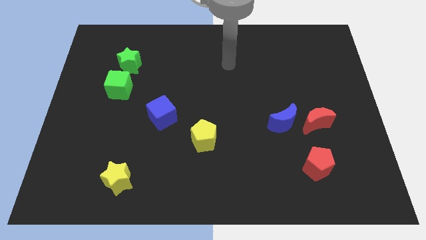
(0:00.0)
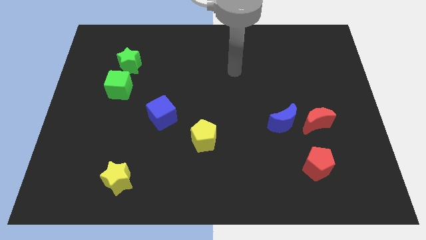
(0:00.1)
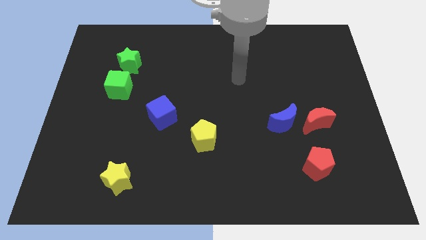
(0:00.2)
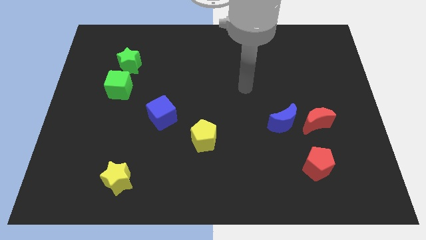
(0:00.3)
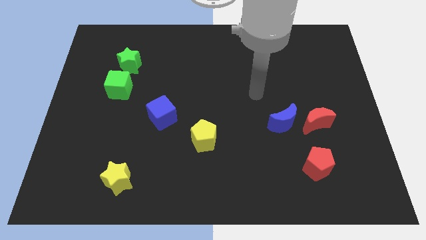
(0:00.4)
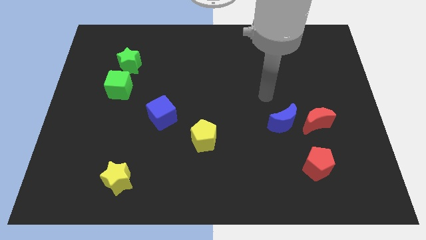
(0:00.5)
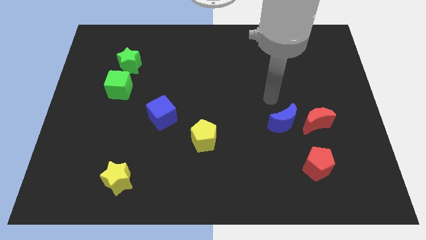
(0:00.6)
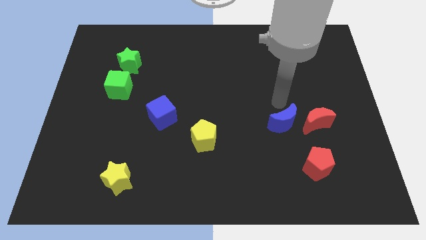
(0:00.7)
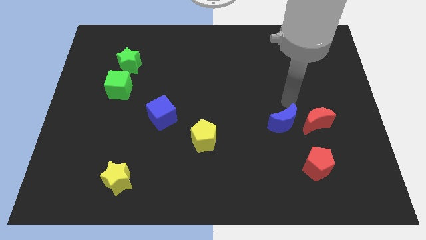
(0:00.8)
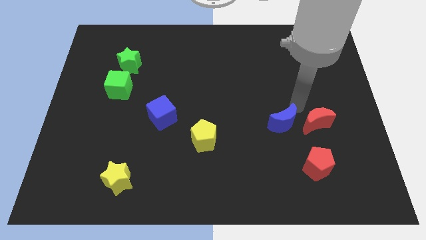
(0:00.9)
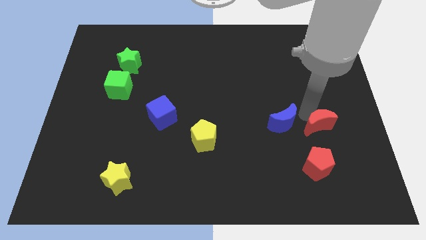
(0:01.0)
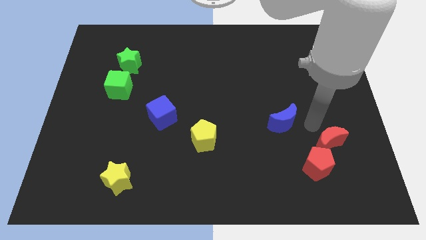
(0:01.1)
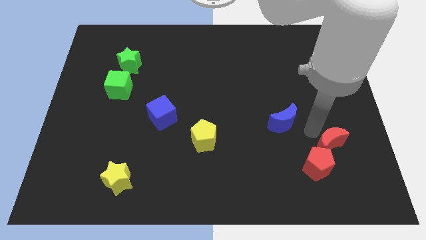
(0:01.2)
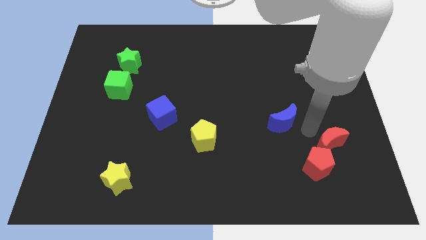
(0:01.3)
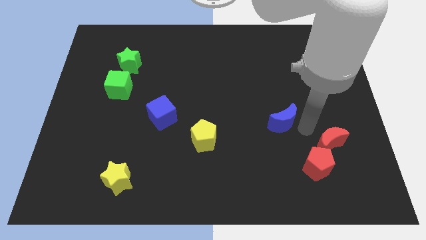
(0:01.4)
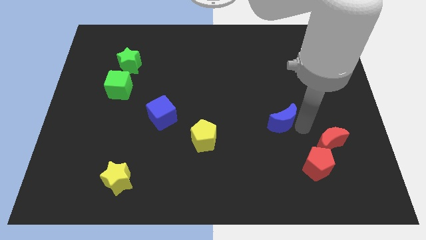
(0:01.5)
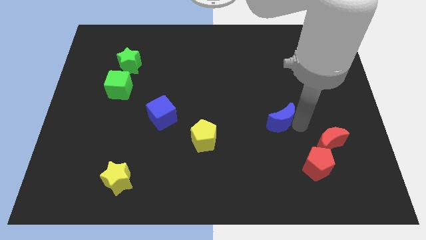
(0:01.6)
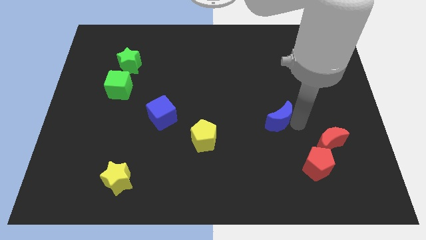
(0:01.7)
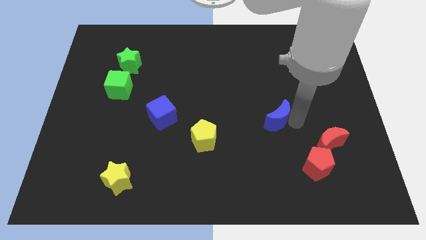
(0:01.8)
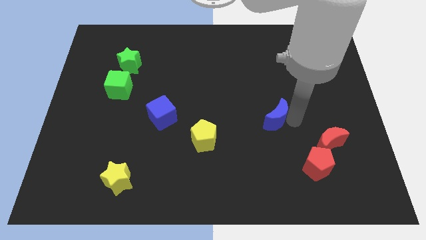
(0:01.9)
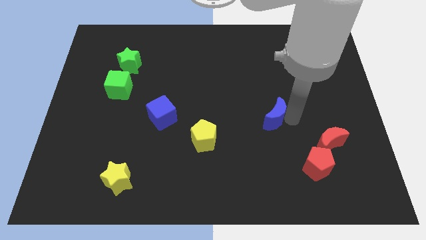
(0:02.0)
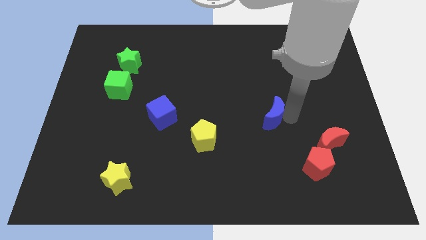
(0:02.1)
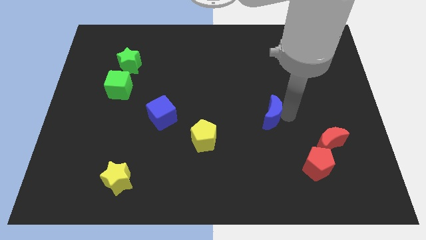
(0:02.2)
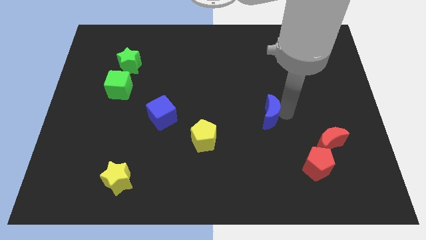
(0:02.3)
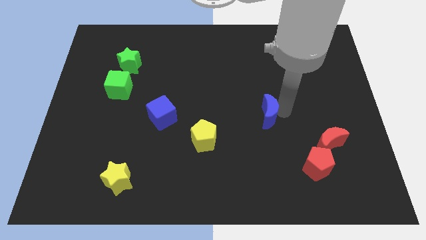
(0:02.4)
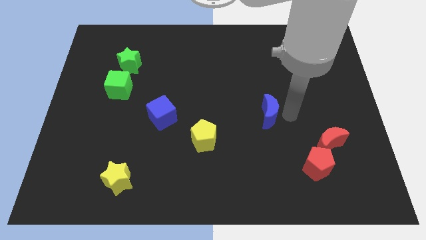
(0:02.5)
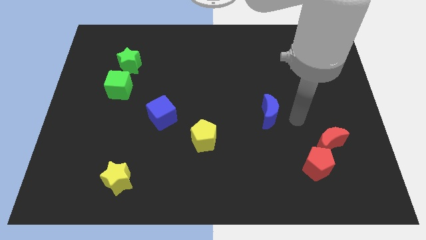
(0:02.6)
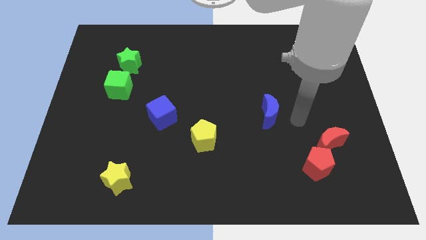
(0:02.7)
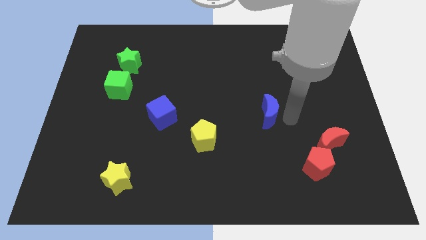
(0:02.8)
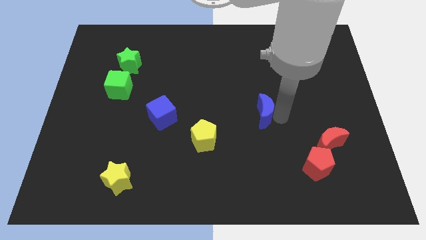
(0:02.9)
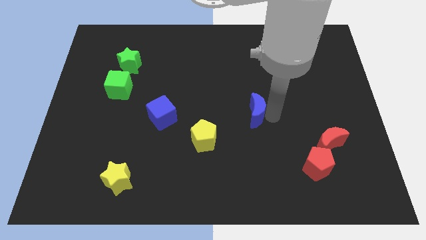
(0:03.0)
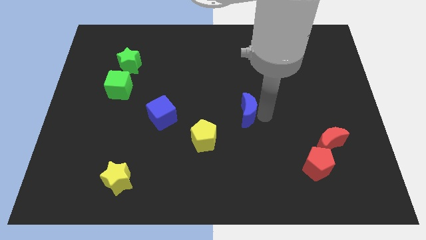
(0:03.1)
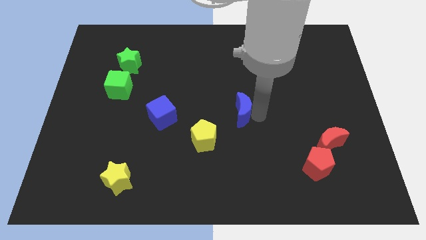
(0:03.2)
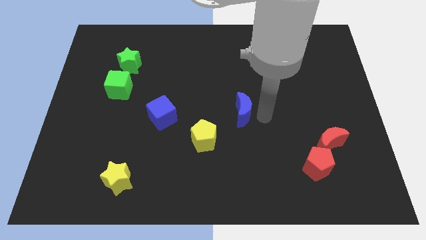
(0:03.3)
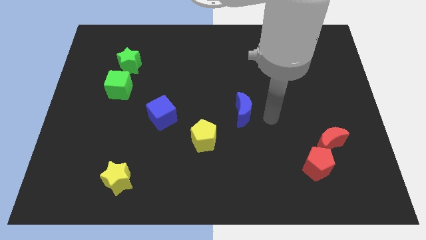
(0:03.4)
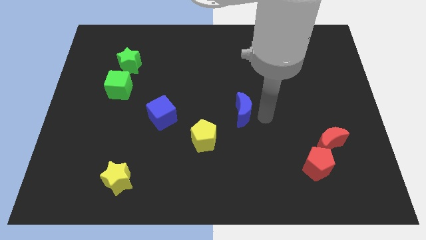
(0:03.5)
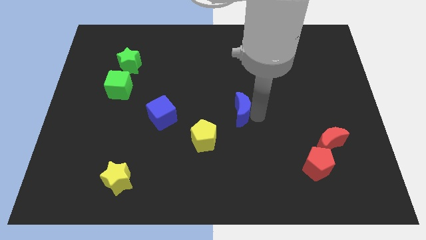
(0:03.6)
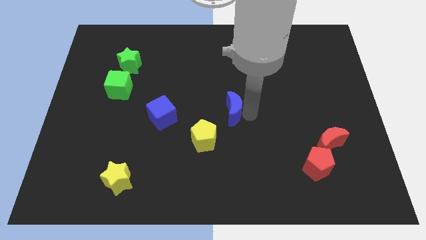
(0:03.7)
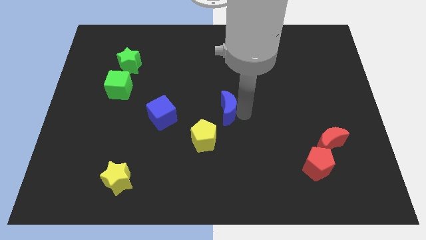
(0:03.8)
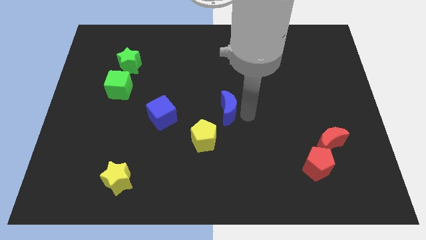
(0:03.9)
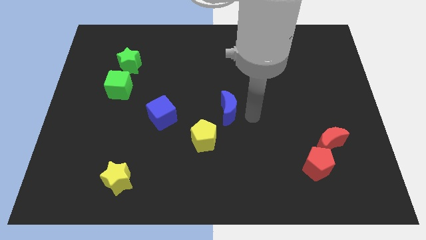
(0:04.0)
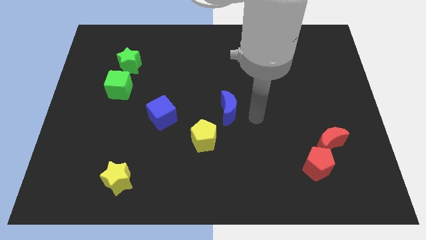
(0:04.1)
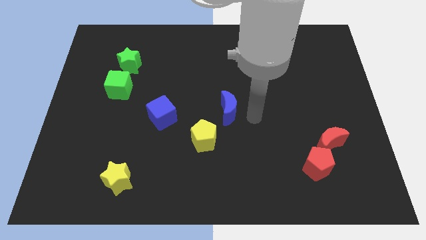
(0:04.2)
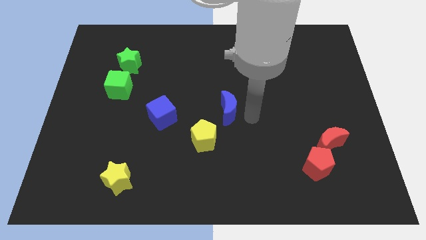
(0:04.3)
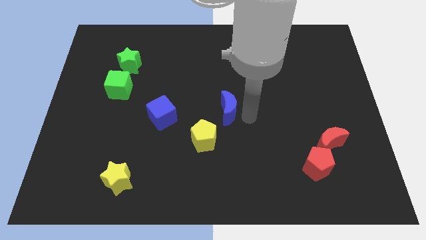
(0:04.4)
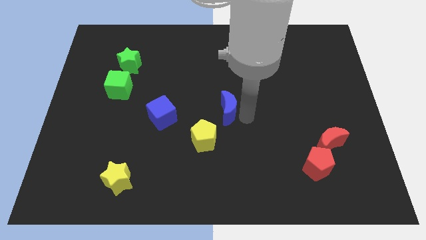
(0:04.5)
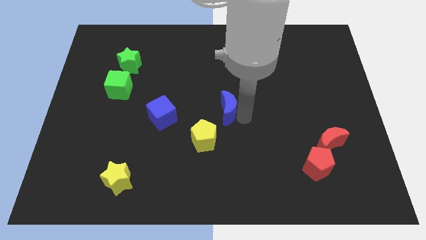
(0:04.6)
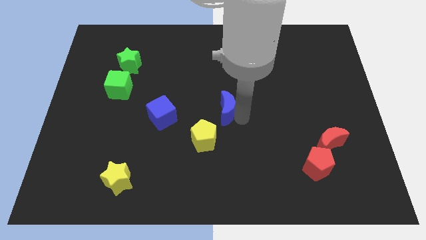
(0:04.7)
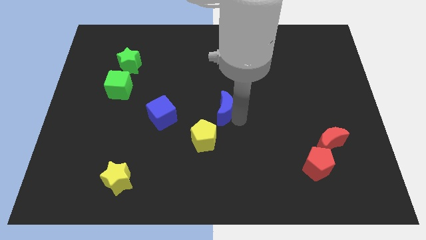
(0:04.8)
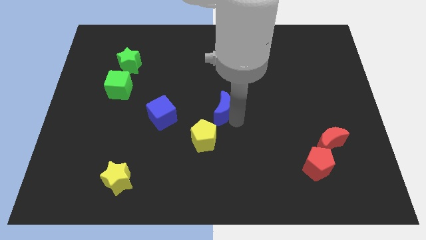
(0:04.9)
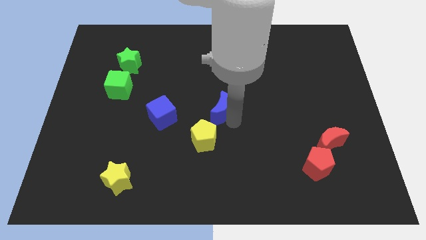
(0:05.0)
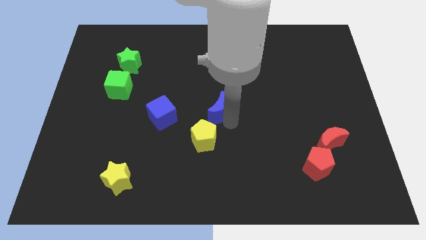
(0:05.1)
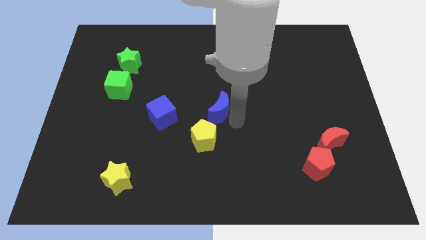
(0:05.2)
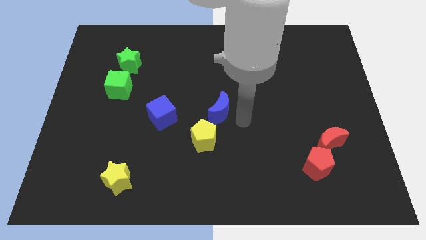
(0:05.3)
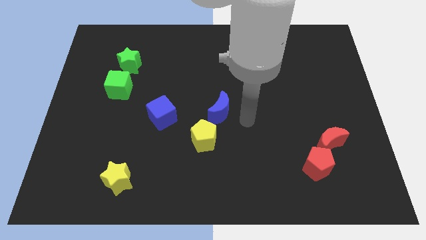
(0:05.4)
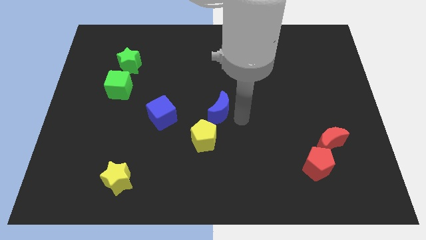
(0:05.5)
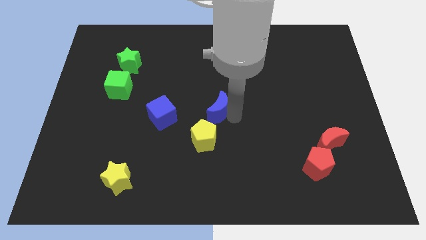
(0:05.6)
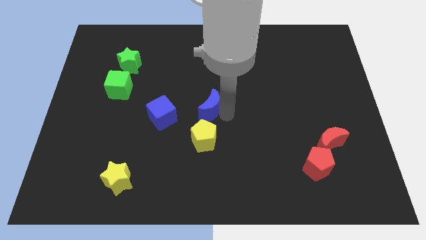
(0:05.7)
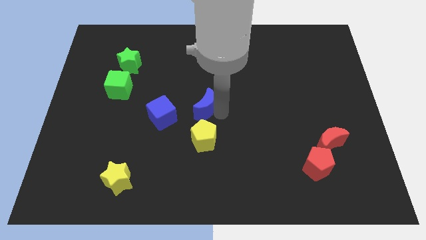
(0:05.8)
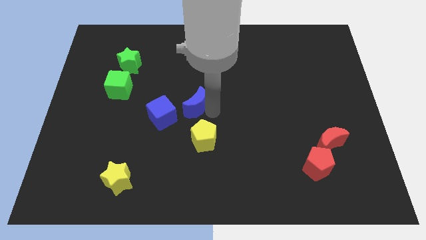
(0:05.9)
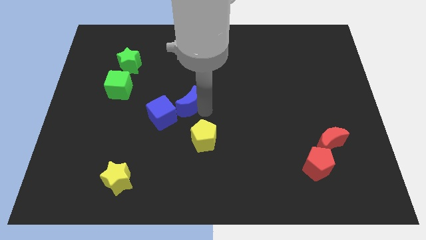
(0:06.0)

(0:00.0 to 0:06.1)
move the blue moon to the left

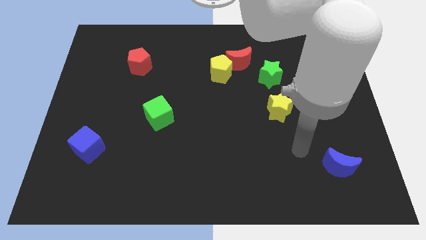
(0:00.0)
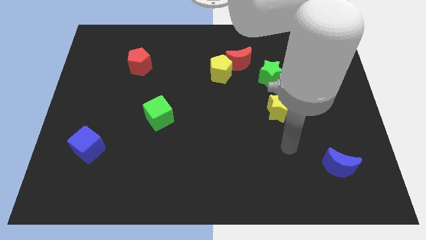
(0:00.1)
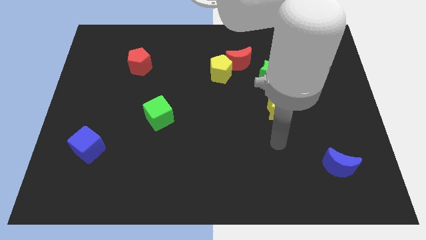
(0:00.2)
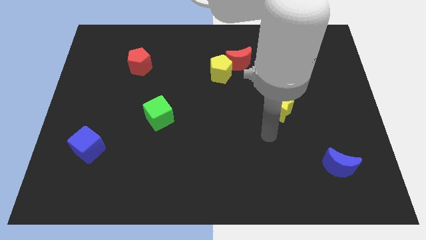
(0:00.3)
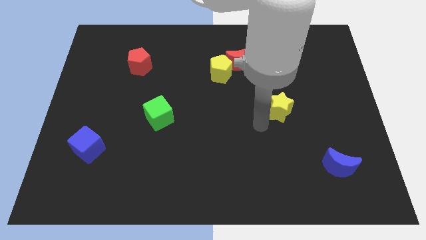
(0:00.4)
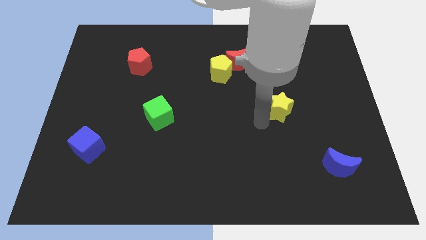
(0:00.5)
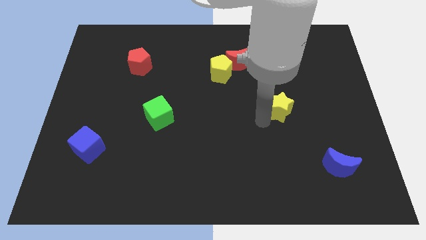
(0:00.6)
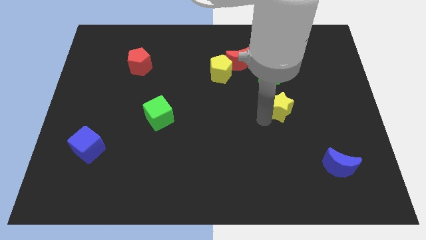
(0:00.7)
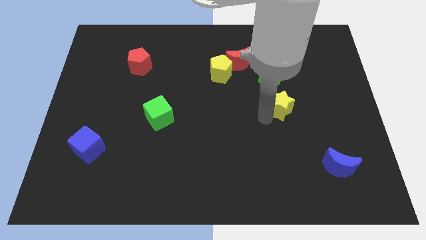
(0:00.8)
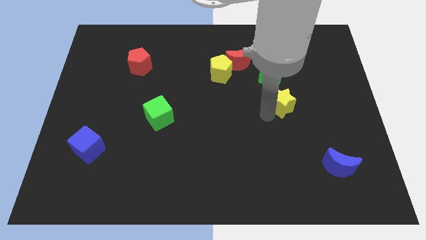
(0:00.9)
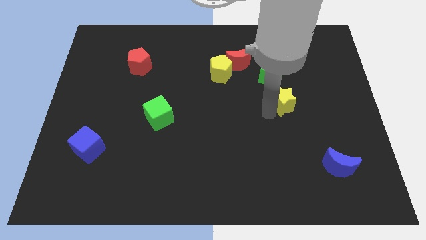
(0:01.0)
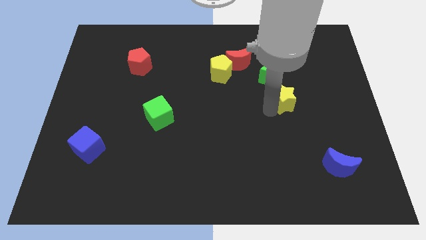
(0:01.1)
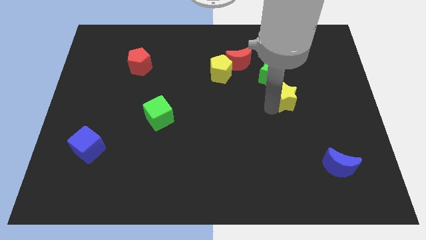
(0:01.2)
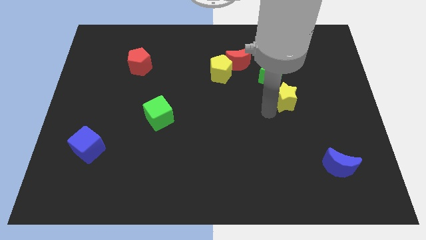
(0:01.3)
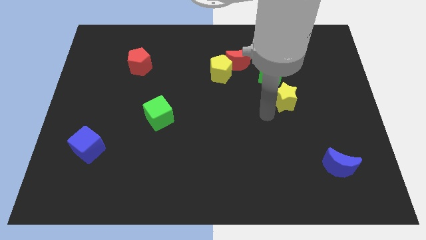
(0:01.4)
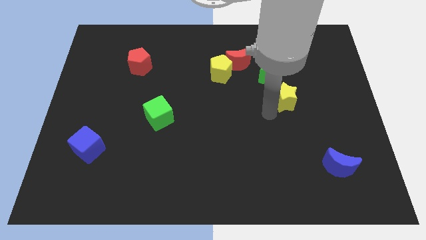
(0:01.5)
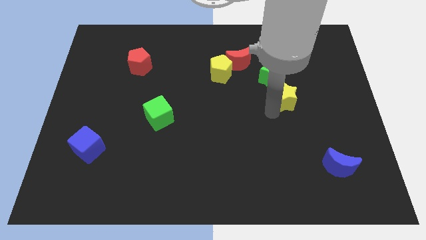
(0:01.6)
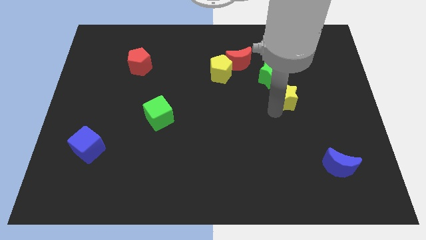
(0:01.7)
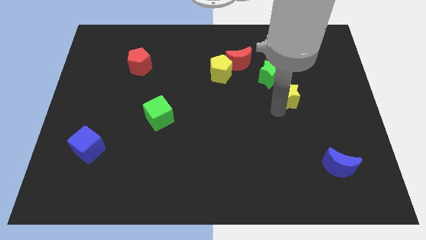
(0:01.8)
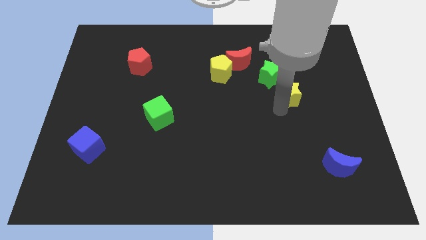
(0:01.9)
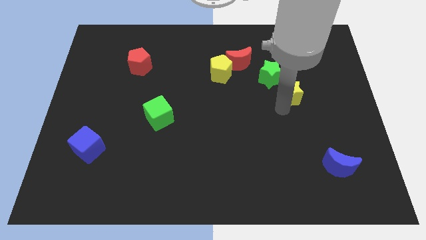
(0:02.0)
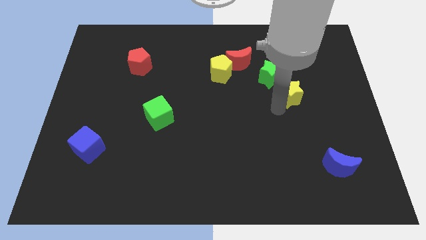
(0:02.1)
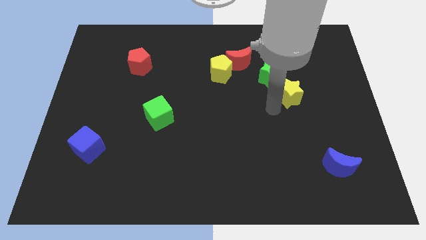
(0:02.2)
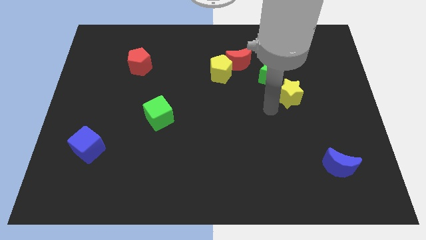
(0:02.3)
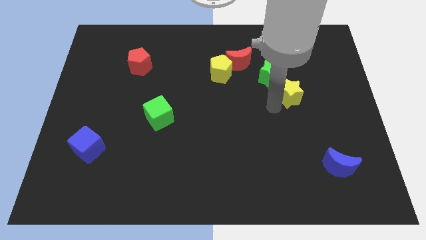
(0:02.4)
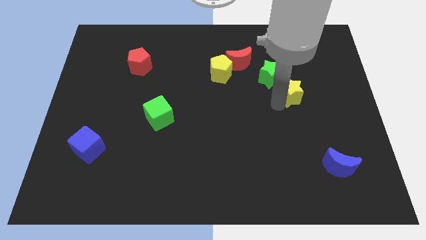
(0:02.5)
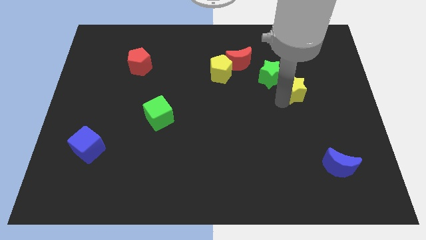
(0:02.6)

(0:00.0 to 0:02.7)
push the yellow star upwards and to the right diagonally somewhat
